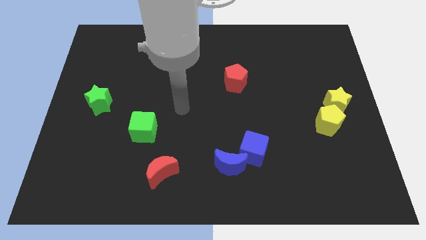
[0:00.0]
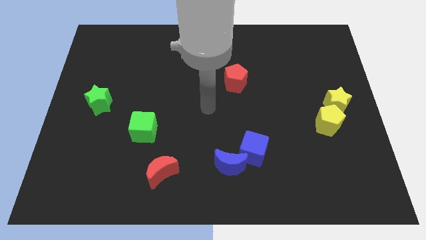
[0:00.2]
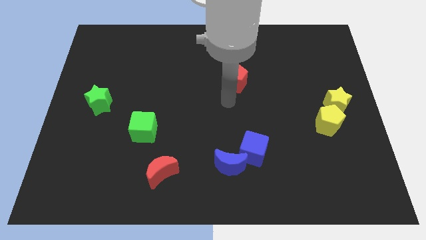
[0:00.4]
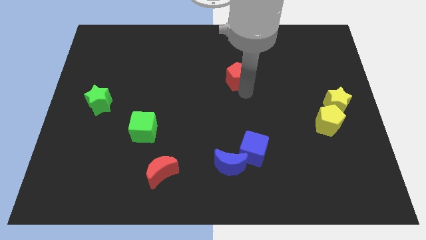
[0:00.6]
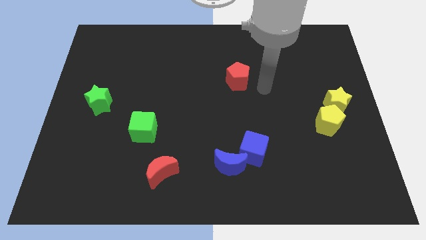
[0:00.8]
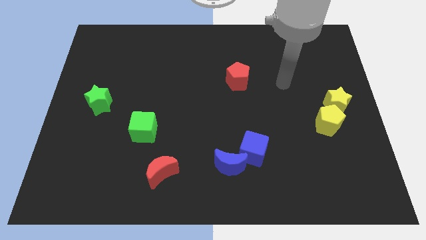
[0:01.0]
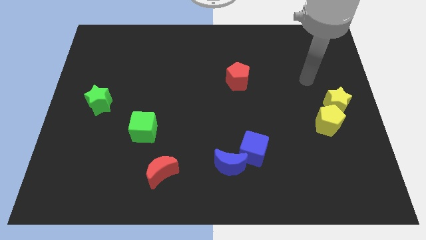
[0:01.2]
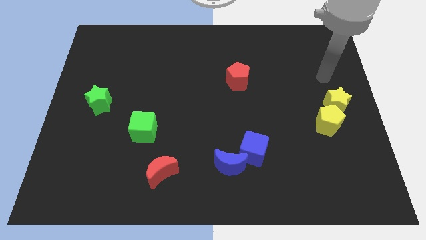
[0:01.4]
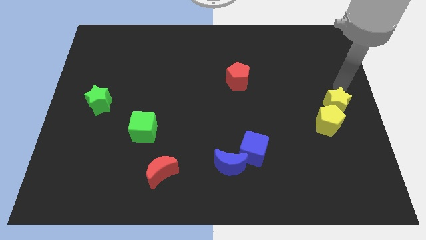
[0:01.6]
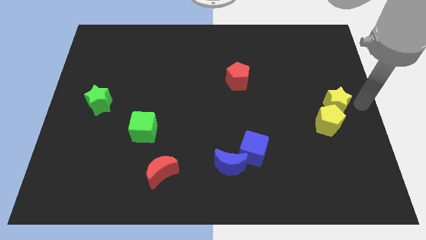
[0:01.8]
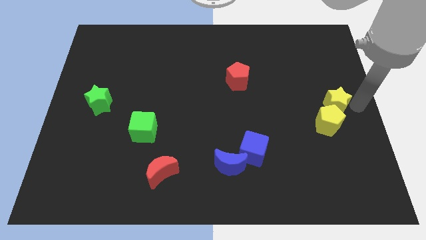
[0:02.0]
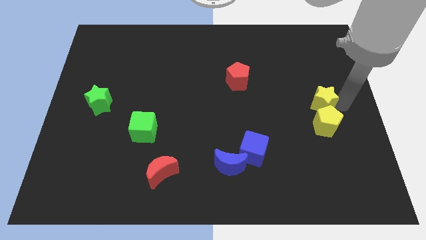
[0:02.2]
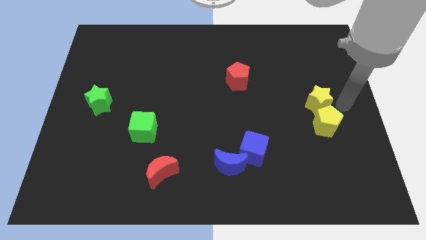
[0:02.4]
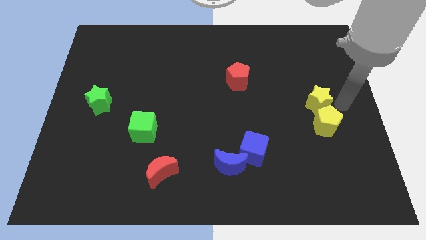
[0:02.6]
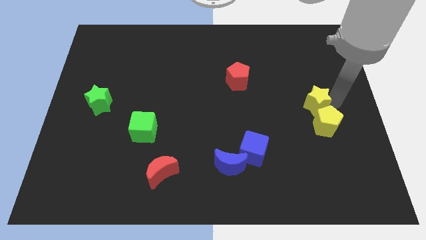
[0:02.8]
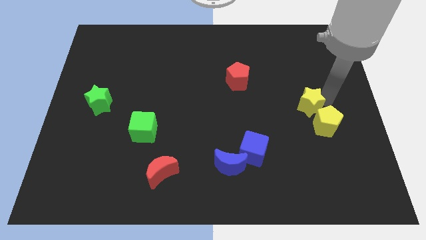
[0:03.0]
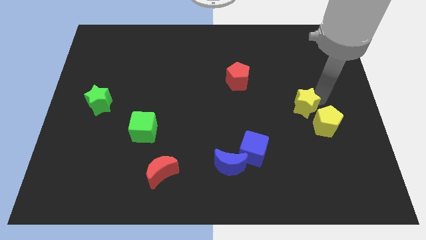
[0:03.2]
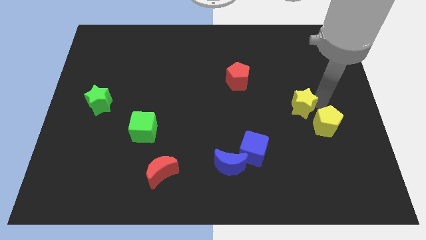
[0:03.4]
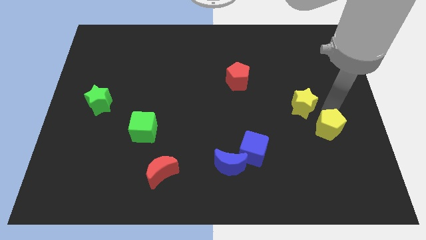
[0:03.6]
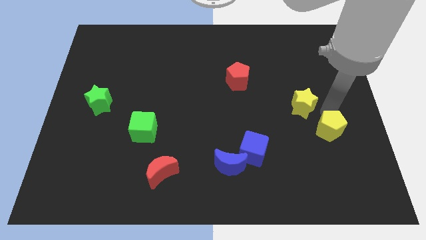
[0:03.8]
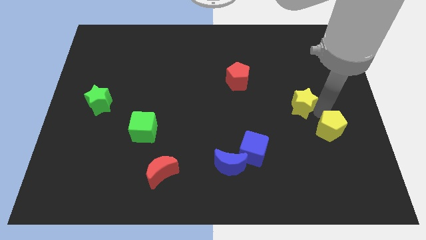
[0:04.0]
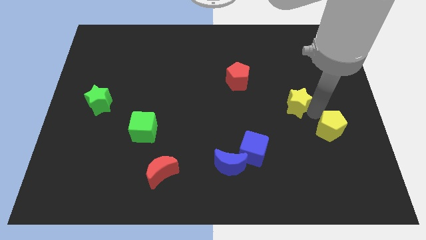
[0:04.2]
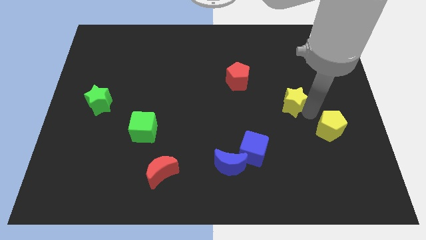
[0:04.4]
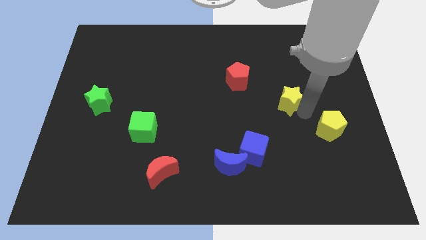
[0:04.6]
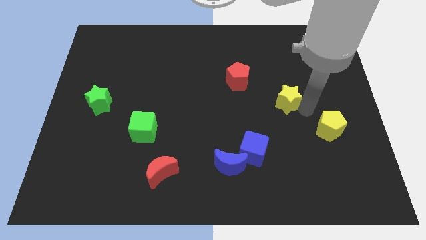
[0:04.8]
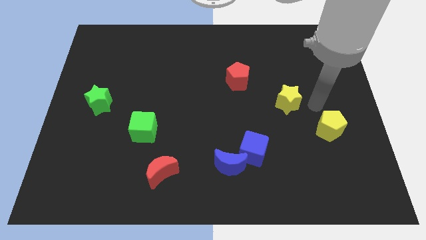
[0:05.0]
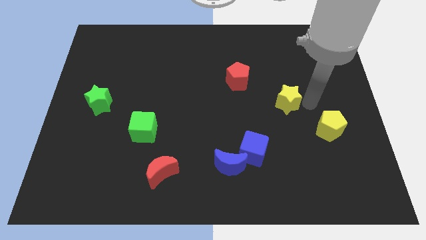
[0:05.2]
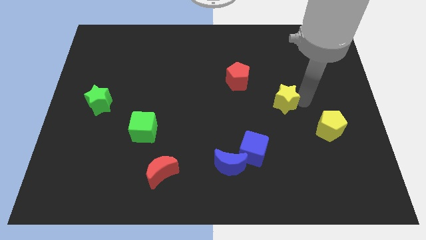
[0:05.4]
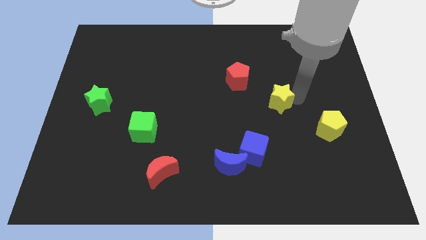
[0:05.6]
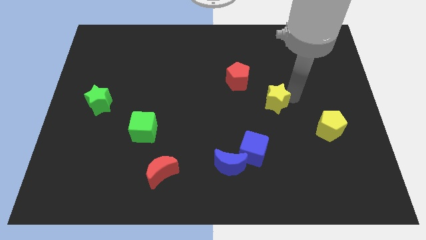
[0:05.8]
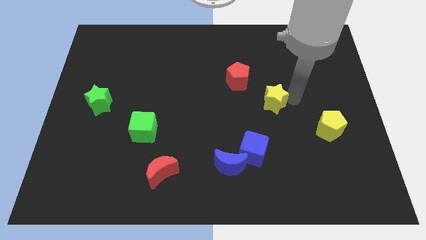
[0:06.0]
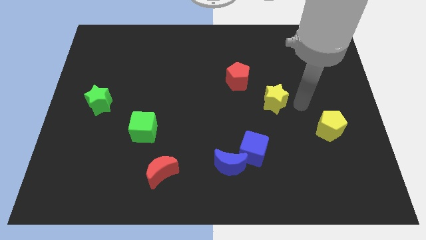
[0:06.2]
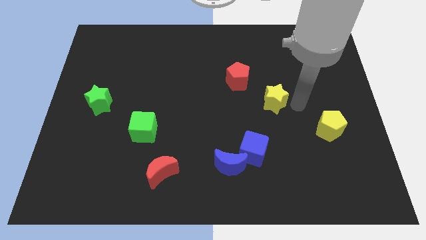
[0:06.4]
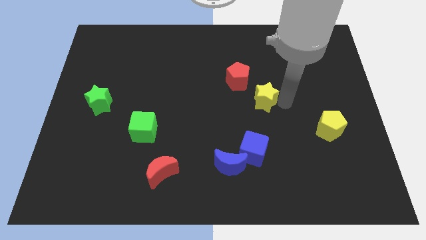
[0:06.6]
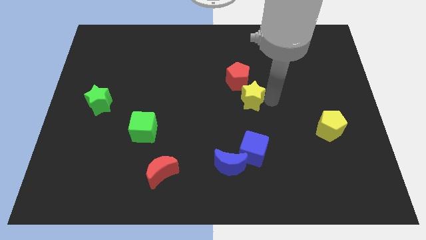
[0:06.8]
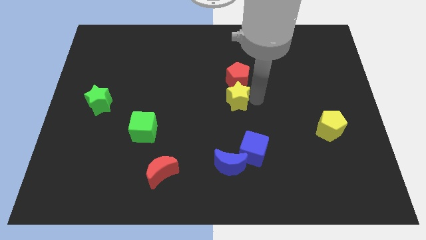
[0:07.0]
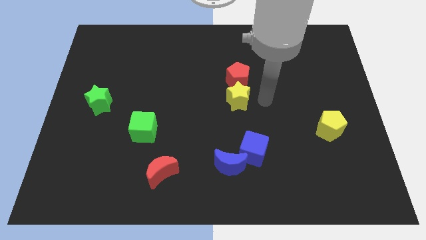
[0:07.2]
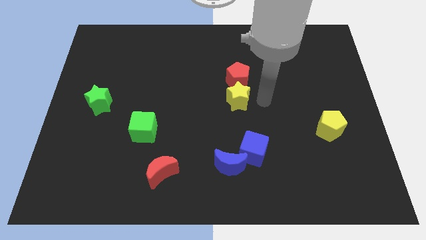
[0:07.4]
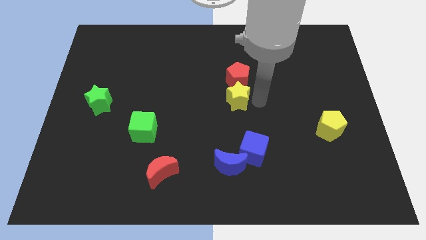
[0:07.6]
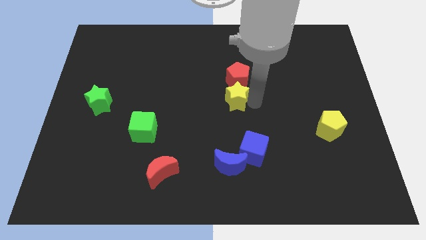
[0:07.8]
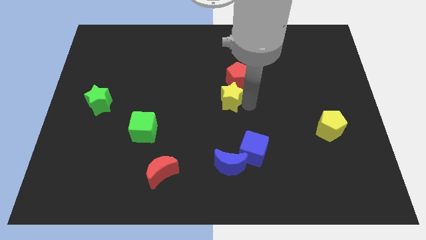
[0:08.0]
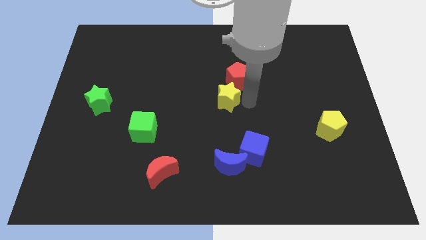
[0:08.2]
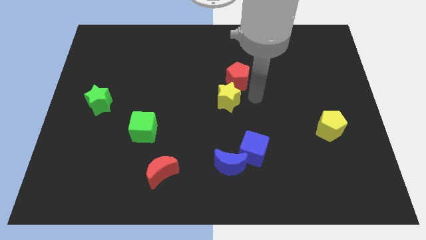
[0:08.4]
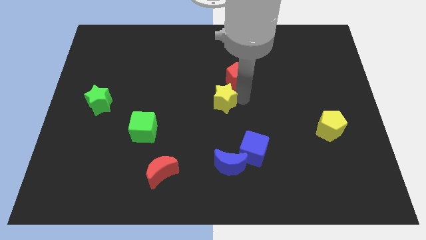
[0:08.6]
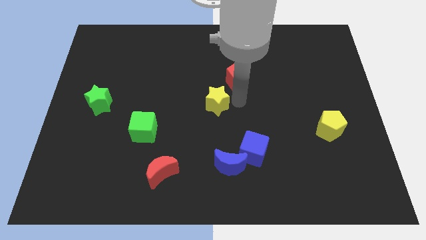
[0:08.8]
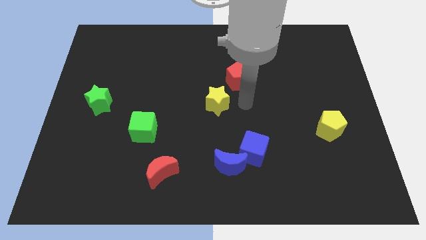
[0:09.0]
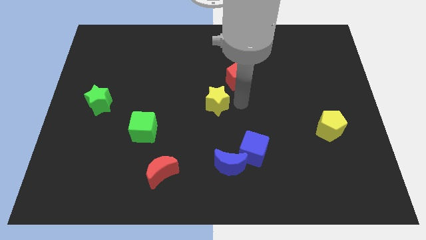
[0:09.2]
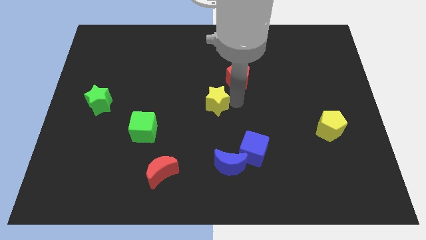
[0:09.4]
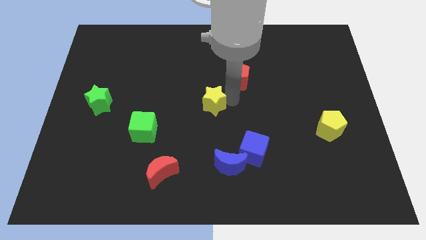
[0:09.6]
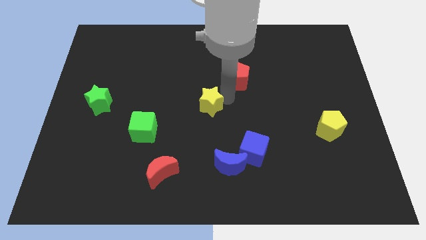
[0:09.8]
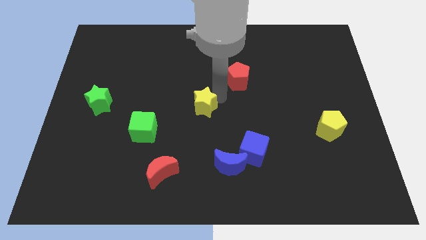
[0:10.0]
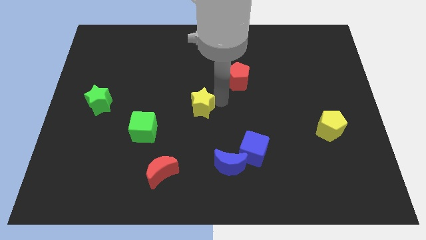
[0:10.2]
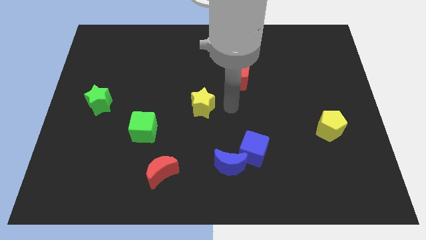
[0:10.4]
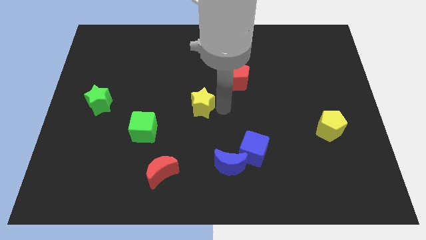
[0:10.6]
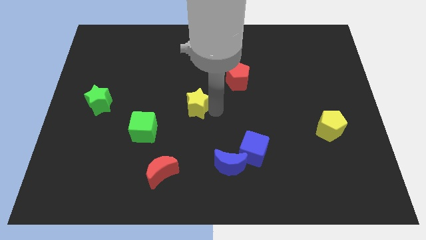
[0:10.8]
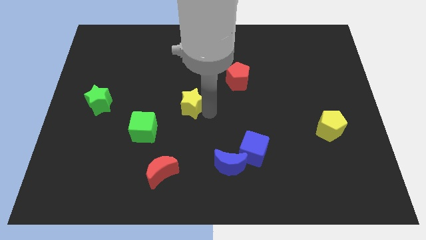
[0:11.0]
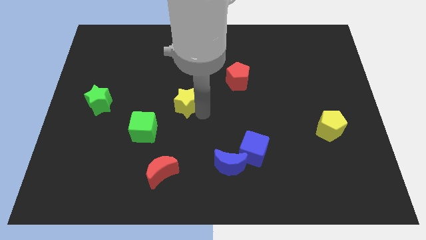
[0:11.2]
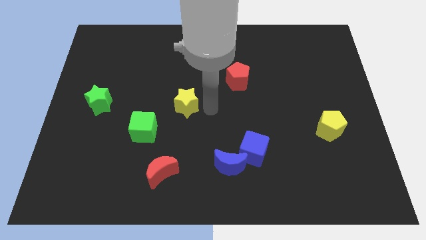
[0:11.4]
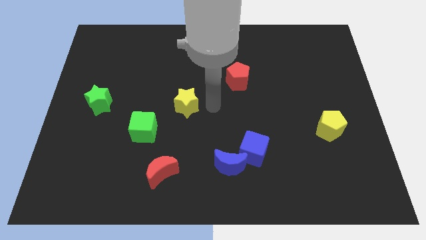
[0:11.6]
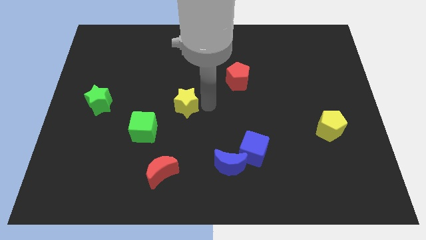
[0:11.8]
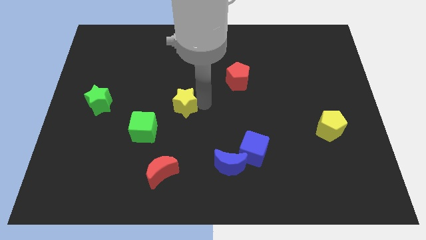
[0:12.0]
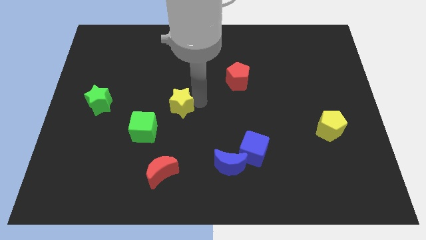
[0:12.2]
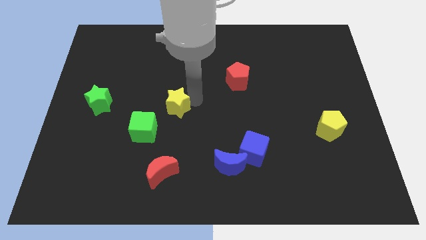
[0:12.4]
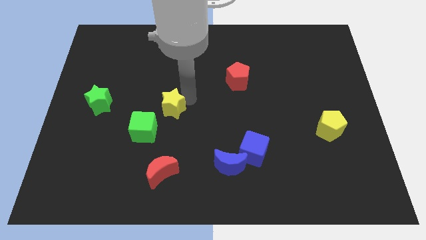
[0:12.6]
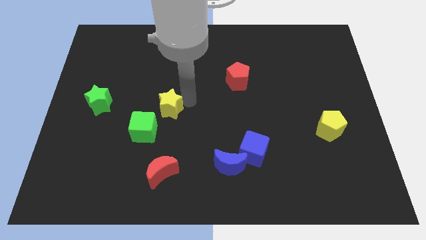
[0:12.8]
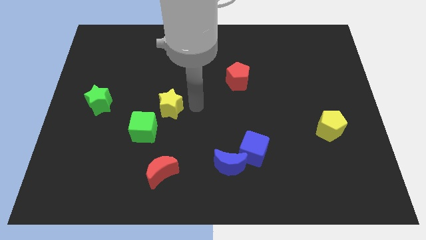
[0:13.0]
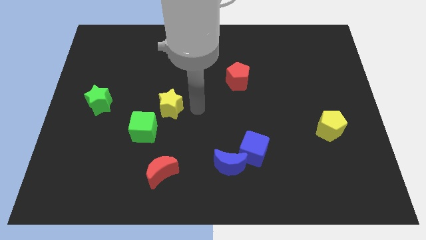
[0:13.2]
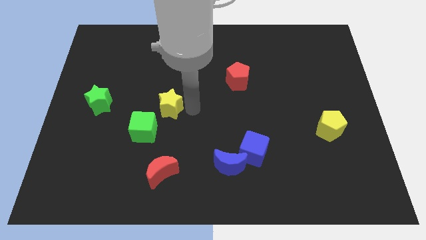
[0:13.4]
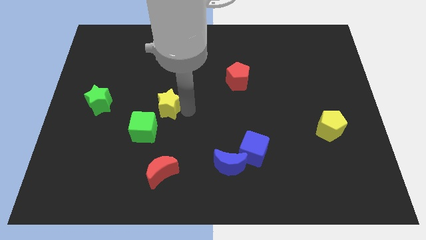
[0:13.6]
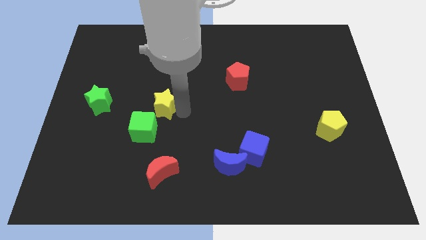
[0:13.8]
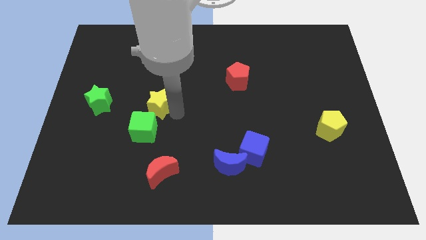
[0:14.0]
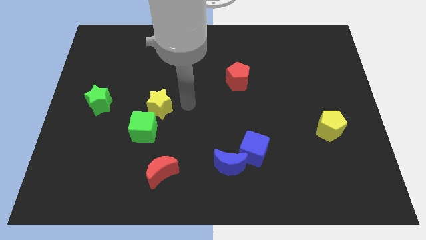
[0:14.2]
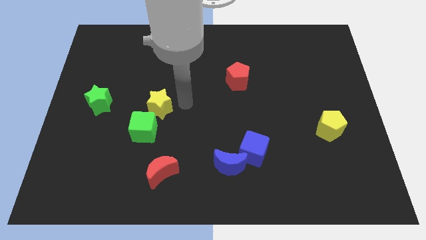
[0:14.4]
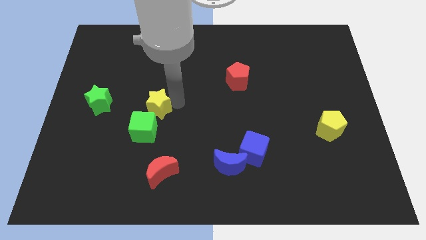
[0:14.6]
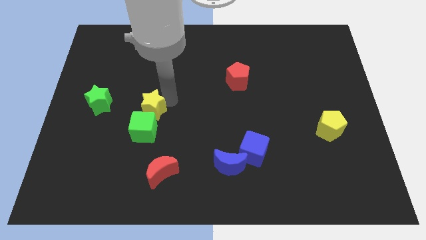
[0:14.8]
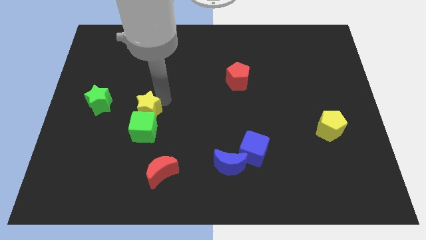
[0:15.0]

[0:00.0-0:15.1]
put the yellow star to the top left side of the green cube

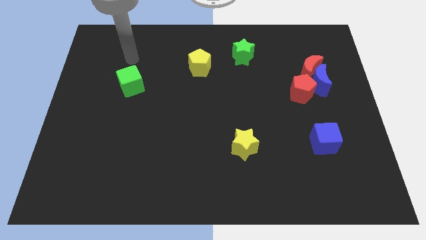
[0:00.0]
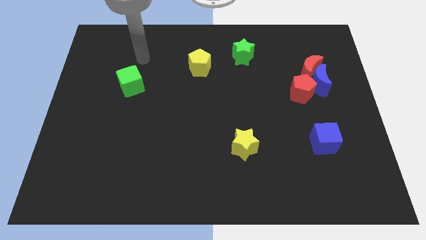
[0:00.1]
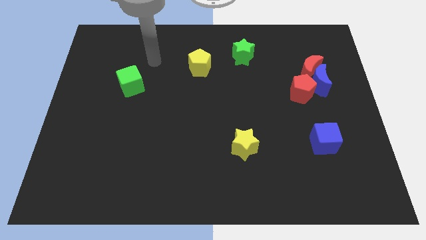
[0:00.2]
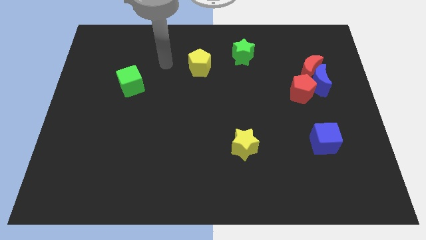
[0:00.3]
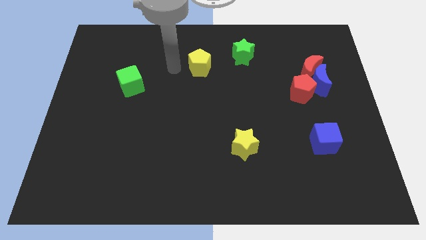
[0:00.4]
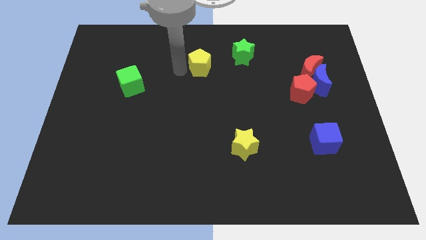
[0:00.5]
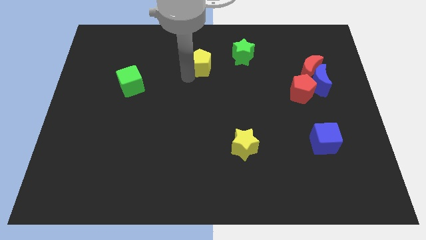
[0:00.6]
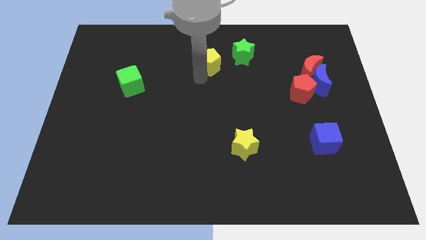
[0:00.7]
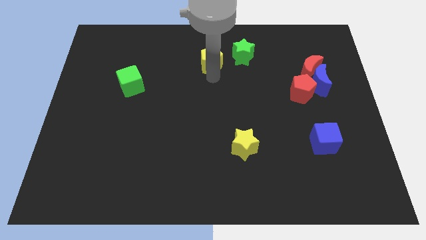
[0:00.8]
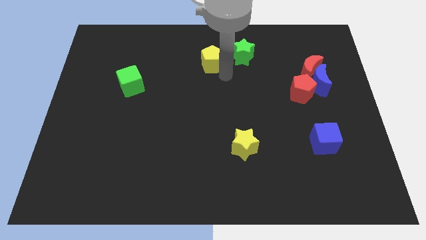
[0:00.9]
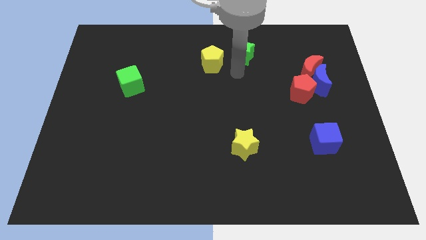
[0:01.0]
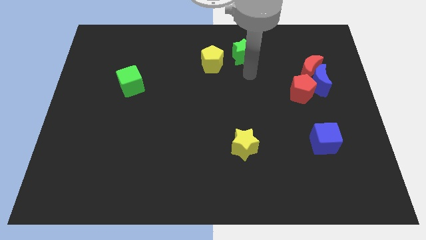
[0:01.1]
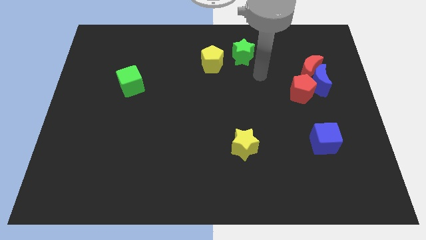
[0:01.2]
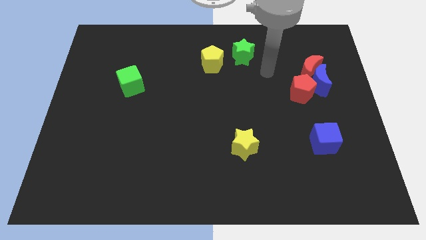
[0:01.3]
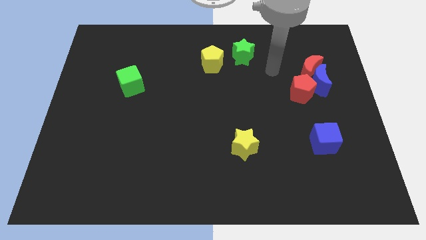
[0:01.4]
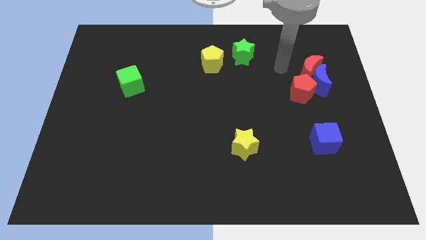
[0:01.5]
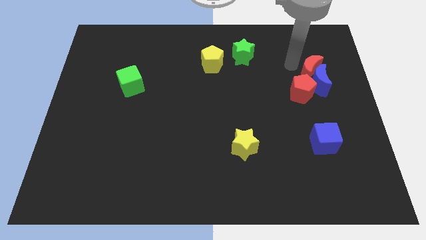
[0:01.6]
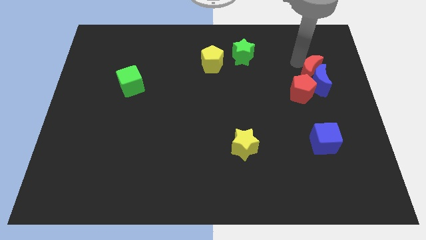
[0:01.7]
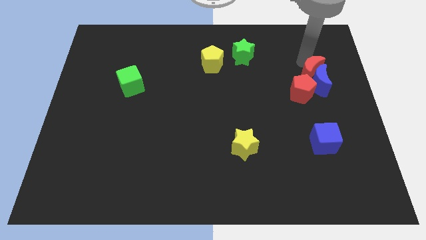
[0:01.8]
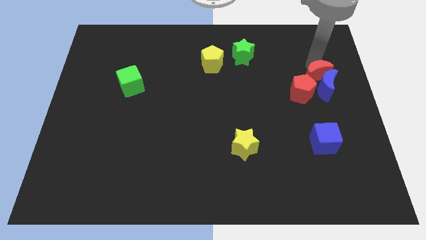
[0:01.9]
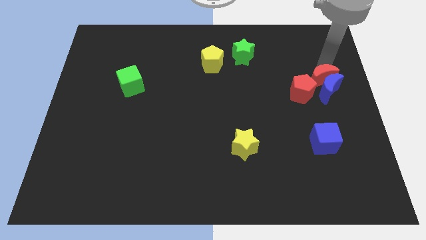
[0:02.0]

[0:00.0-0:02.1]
slide the blue moon diagonally down and to the right of the red pentagon
